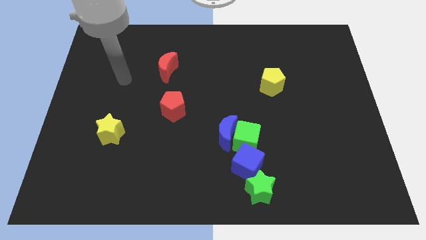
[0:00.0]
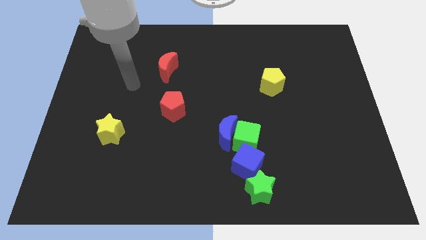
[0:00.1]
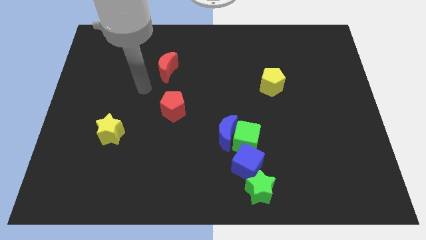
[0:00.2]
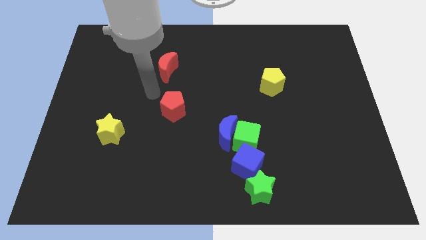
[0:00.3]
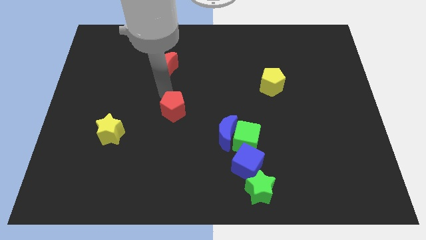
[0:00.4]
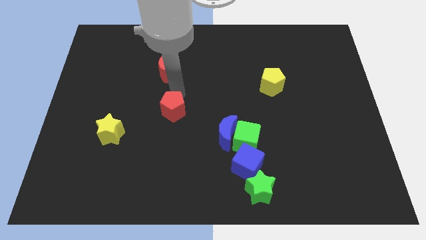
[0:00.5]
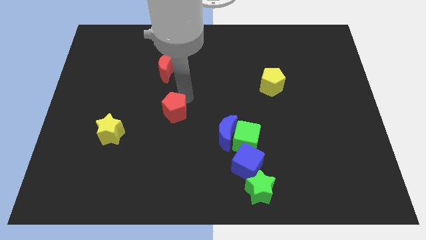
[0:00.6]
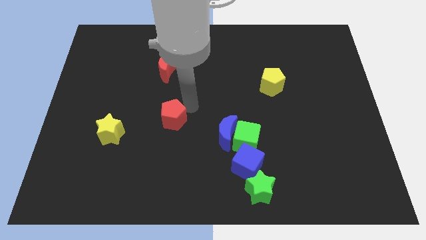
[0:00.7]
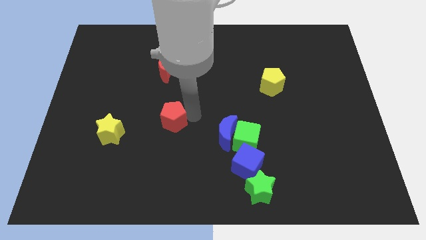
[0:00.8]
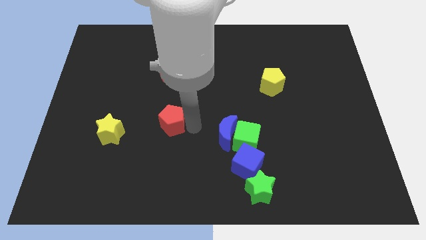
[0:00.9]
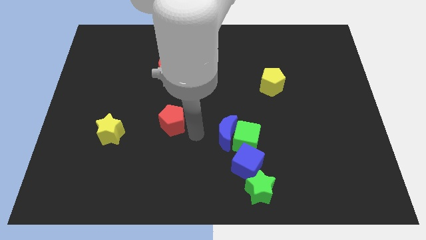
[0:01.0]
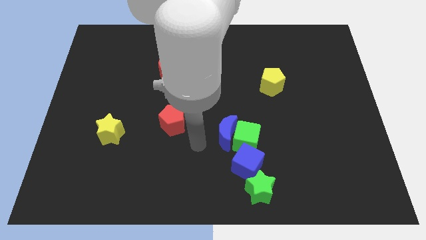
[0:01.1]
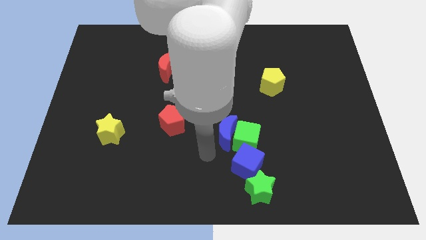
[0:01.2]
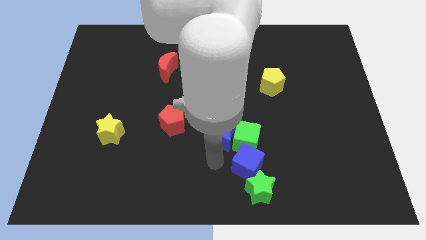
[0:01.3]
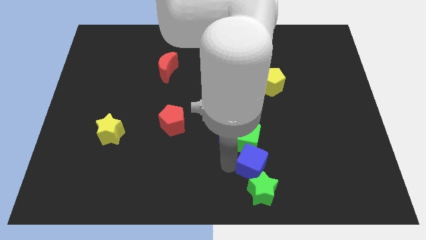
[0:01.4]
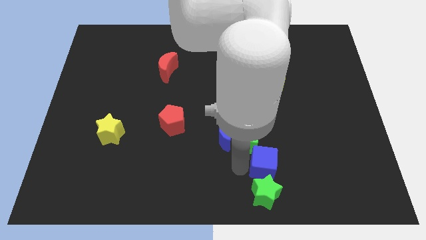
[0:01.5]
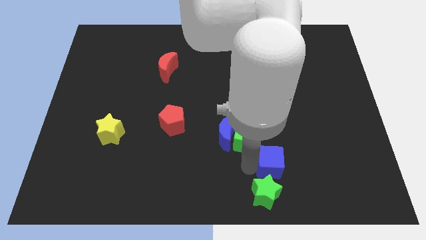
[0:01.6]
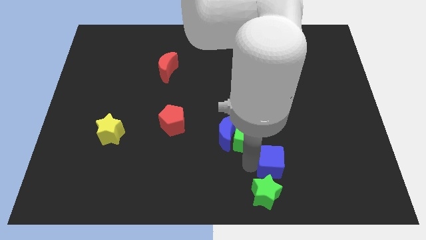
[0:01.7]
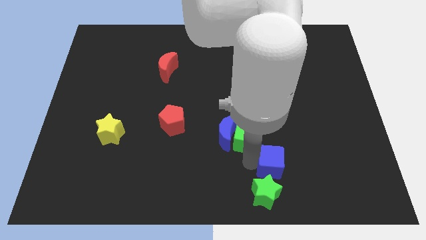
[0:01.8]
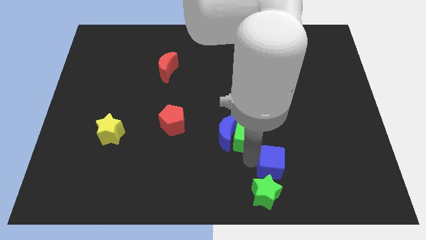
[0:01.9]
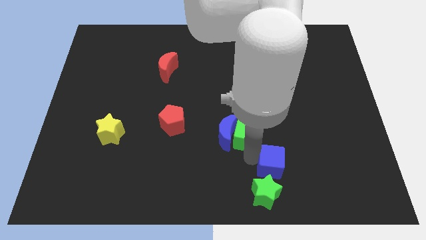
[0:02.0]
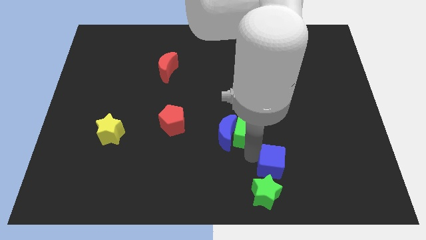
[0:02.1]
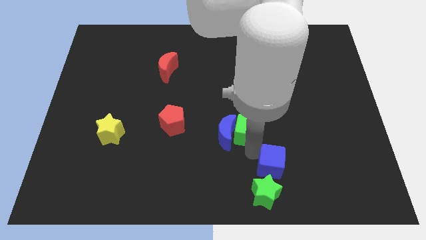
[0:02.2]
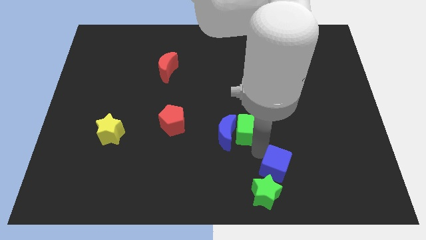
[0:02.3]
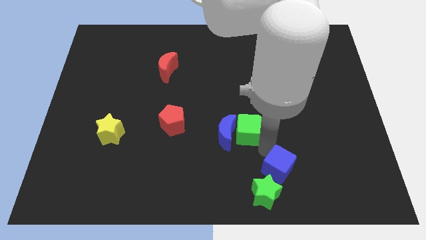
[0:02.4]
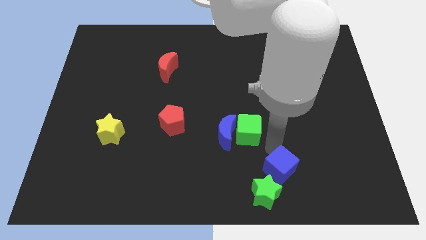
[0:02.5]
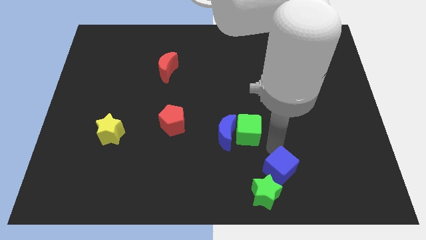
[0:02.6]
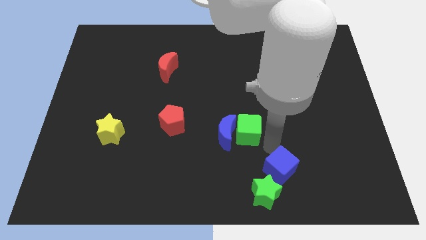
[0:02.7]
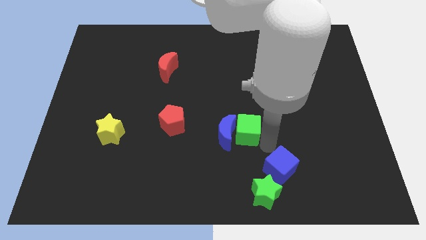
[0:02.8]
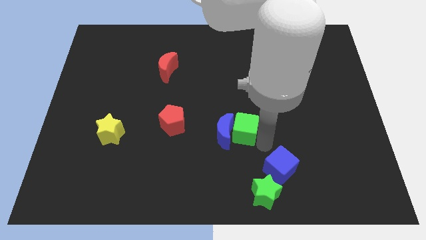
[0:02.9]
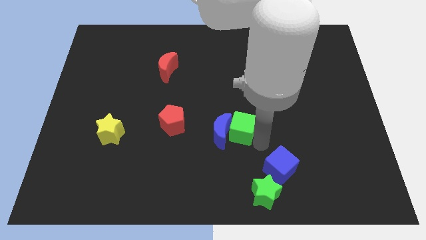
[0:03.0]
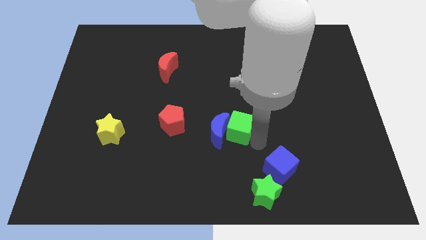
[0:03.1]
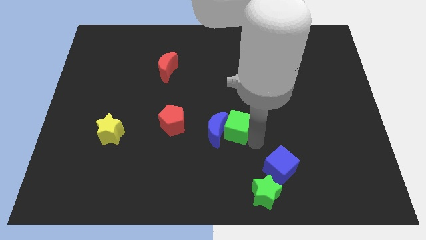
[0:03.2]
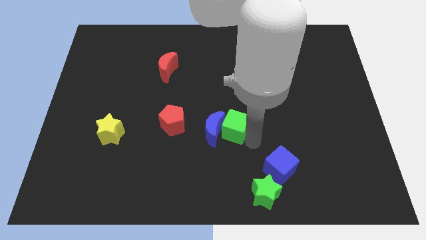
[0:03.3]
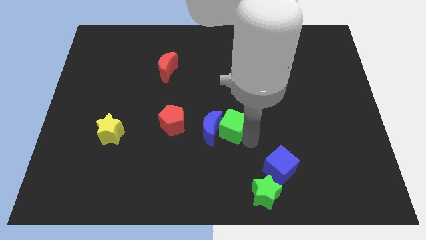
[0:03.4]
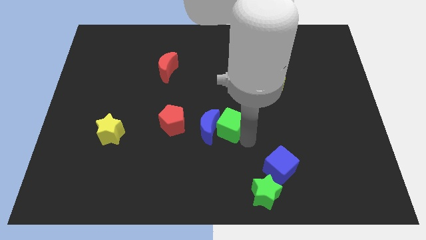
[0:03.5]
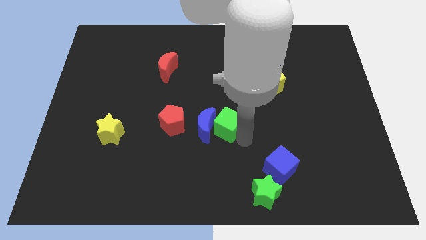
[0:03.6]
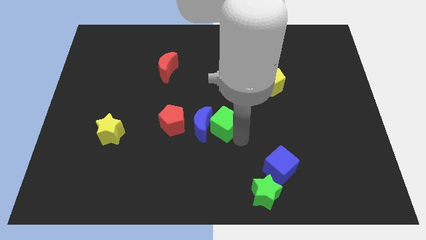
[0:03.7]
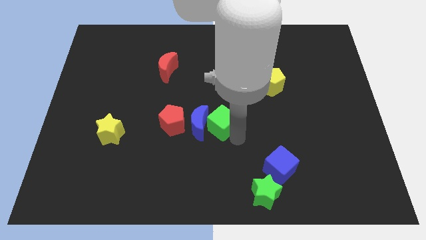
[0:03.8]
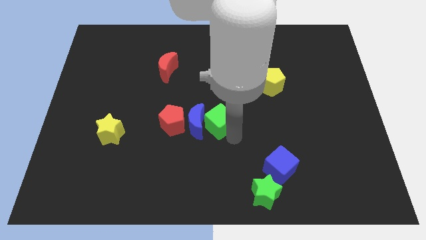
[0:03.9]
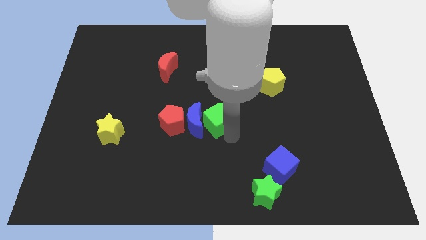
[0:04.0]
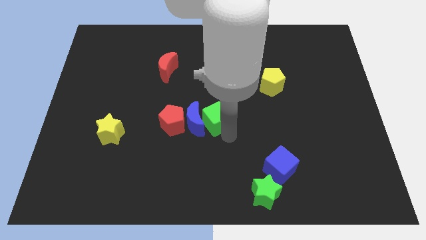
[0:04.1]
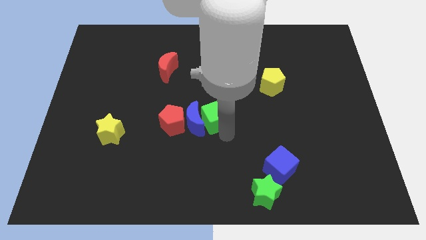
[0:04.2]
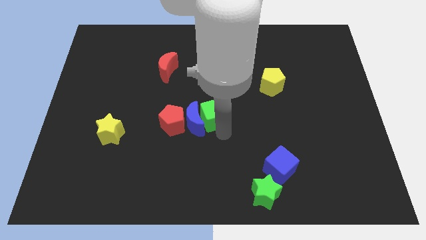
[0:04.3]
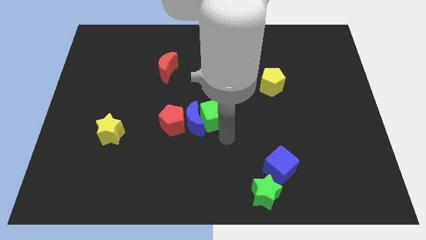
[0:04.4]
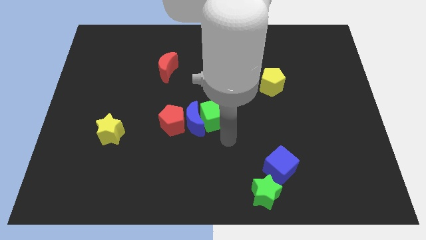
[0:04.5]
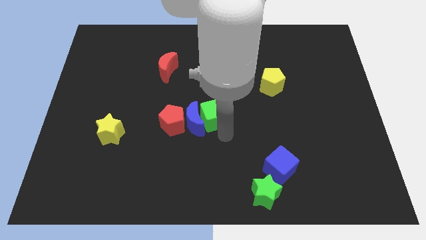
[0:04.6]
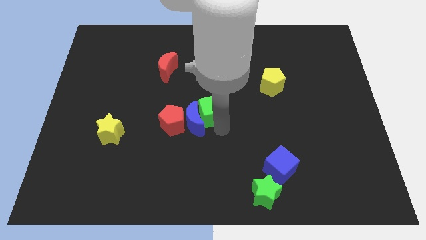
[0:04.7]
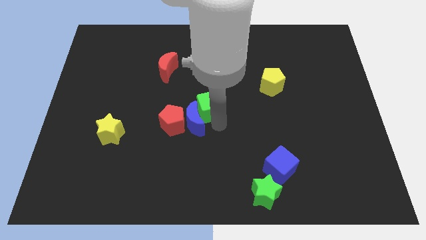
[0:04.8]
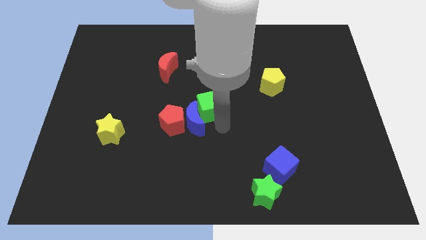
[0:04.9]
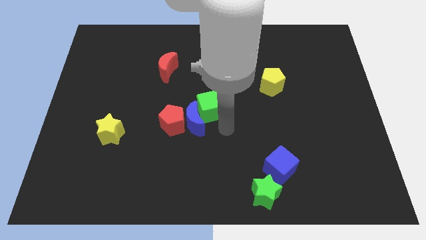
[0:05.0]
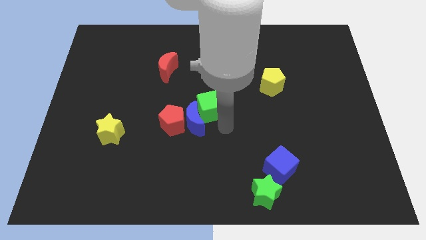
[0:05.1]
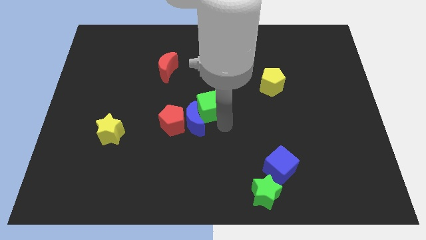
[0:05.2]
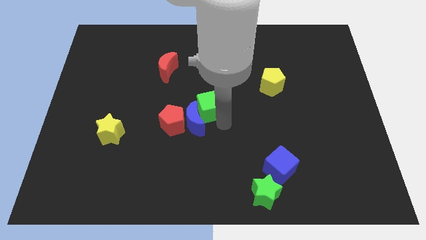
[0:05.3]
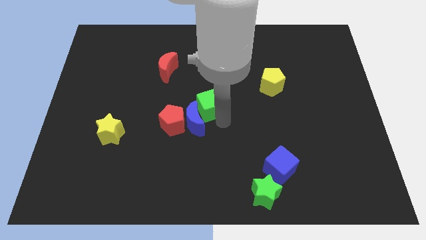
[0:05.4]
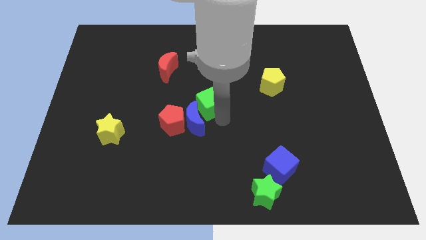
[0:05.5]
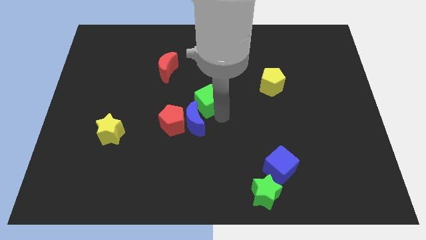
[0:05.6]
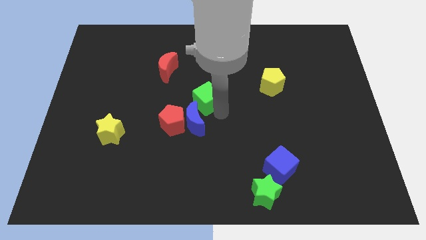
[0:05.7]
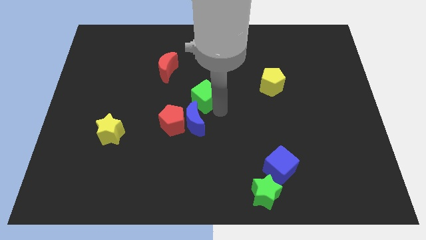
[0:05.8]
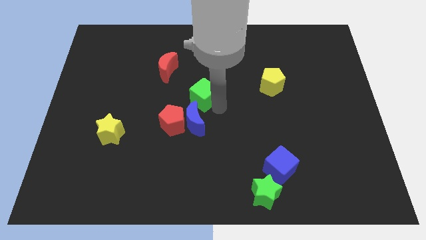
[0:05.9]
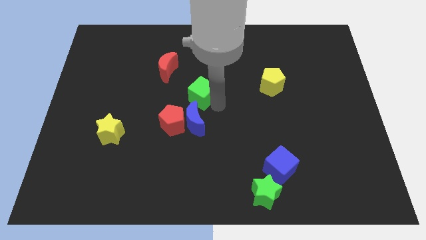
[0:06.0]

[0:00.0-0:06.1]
push the green cube to the bottom right side of the red moon

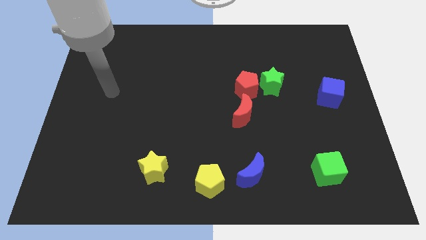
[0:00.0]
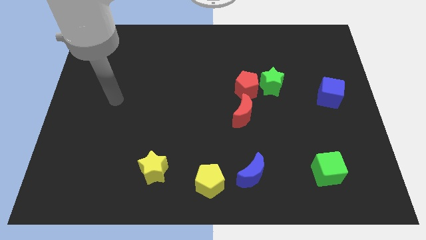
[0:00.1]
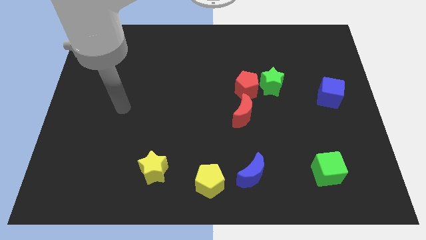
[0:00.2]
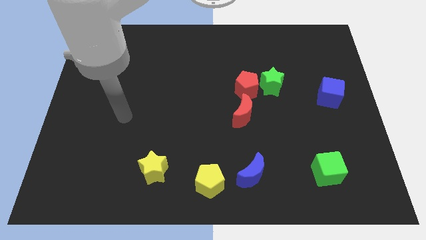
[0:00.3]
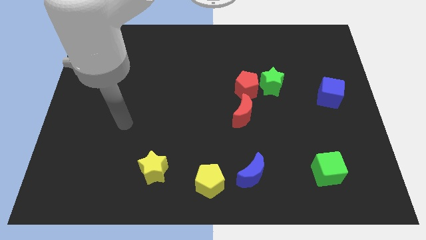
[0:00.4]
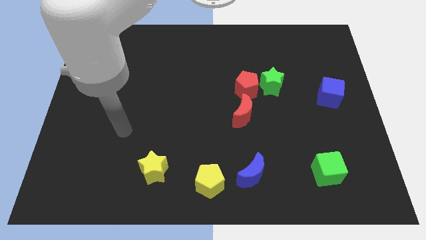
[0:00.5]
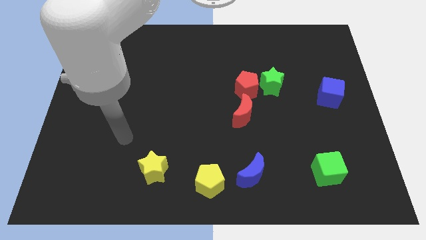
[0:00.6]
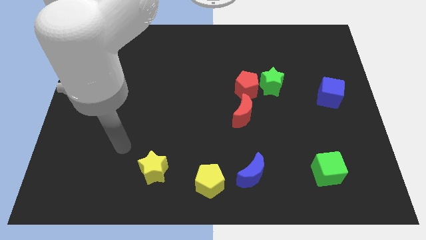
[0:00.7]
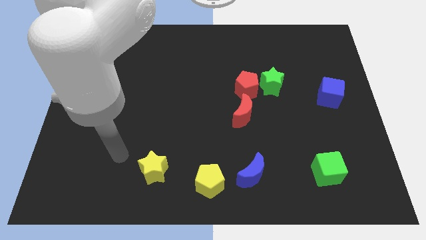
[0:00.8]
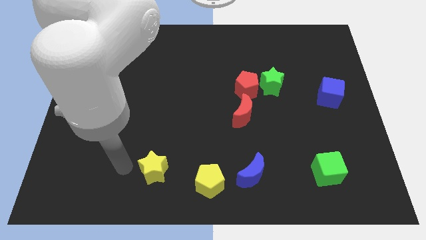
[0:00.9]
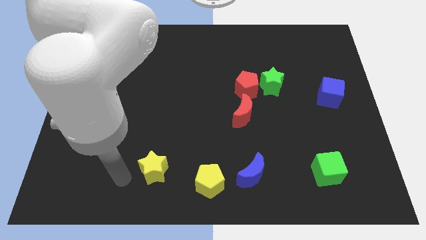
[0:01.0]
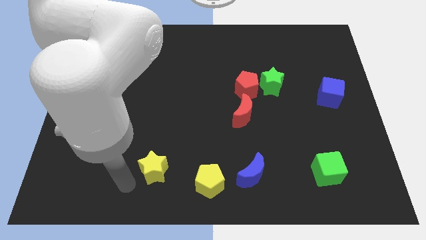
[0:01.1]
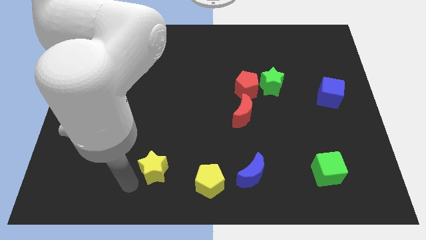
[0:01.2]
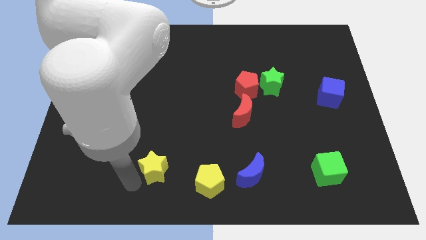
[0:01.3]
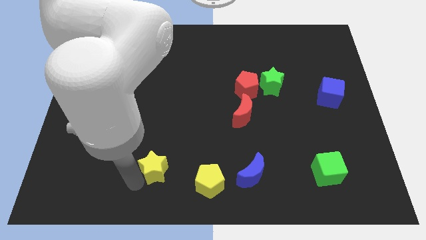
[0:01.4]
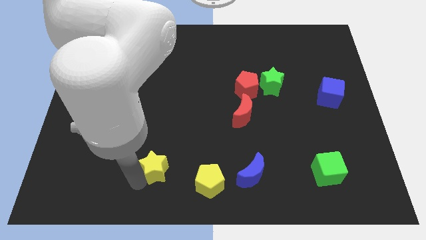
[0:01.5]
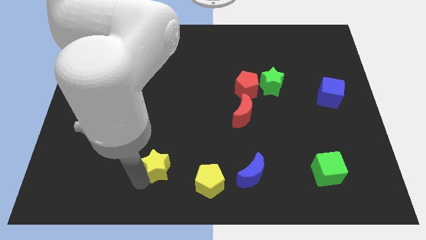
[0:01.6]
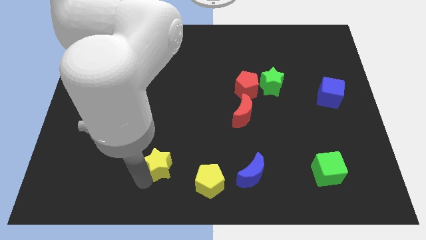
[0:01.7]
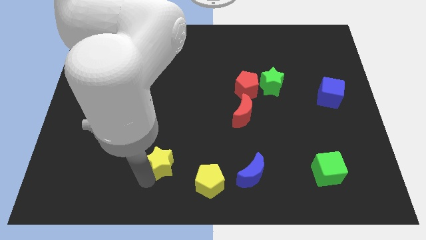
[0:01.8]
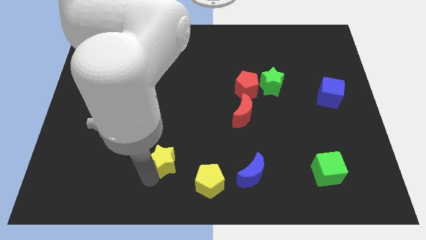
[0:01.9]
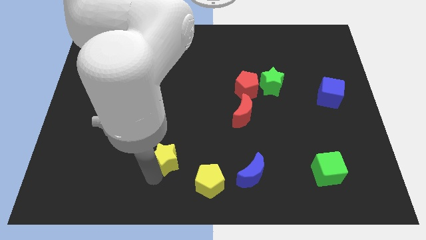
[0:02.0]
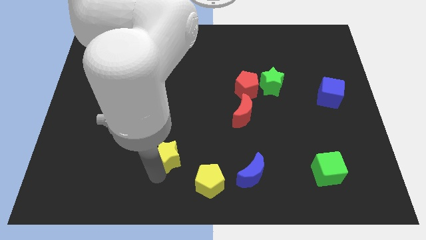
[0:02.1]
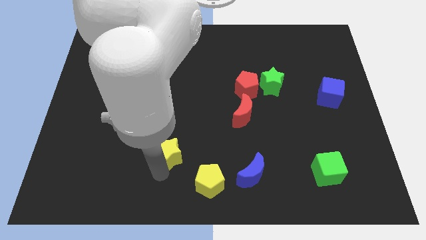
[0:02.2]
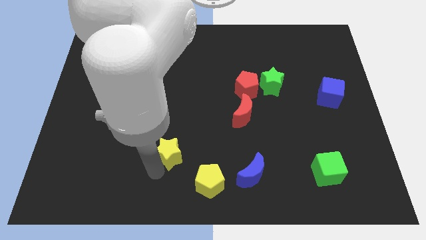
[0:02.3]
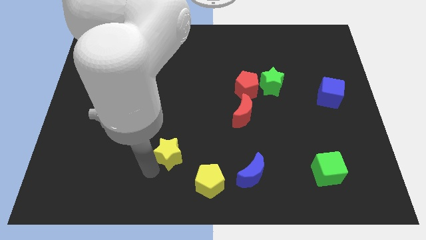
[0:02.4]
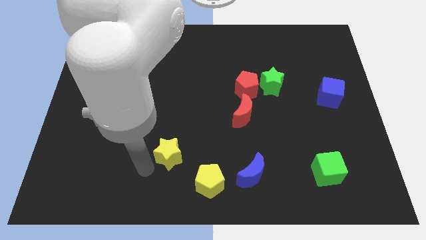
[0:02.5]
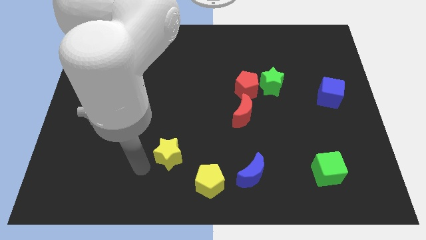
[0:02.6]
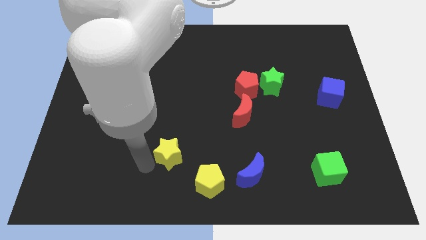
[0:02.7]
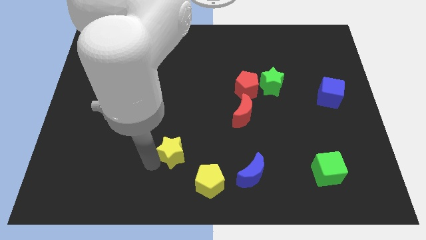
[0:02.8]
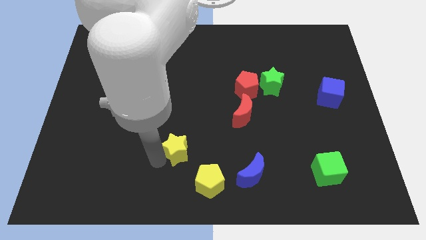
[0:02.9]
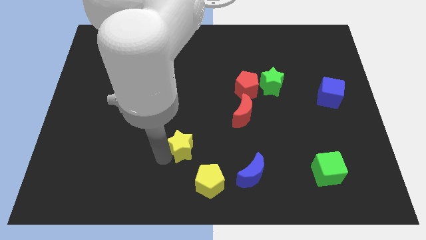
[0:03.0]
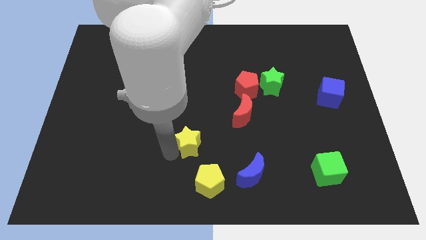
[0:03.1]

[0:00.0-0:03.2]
move the yellow star above the yellow pentagon
